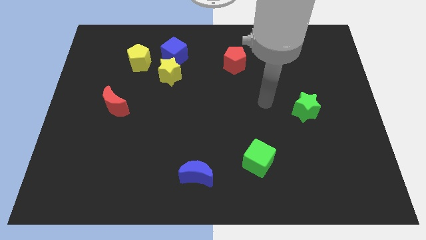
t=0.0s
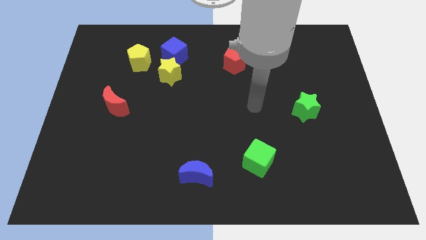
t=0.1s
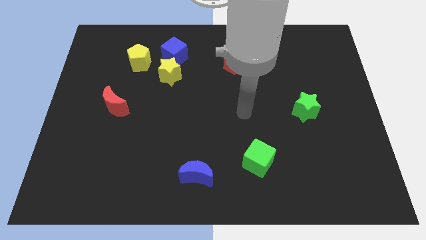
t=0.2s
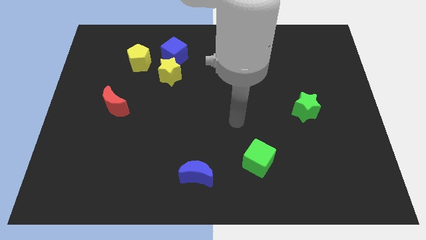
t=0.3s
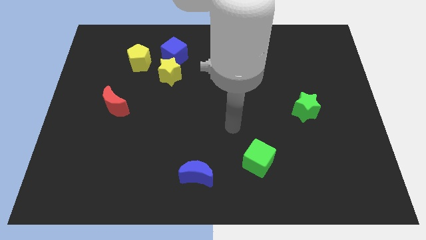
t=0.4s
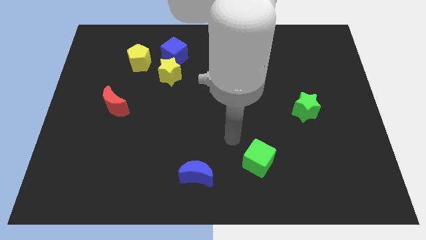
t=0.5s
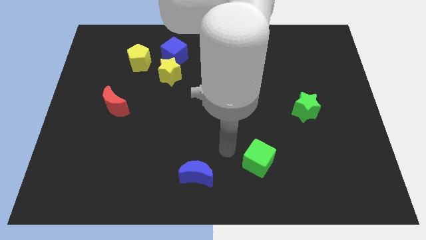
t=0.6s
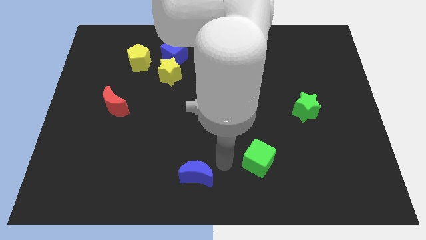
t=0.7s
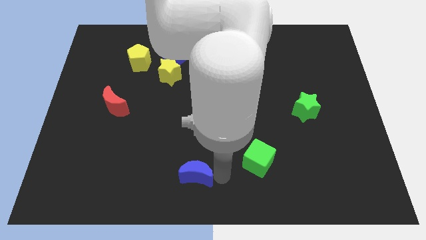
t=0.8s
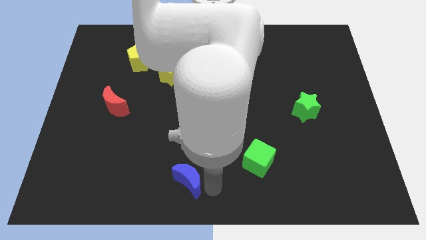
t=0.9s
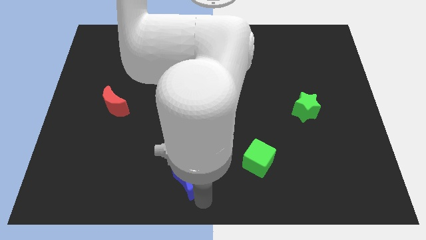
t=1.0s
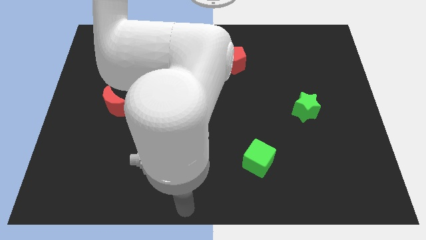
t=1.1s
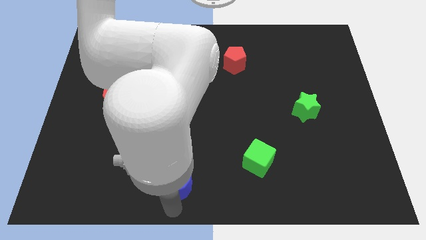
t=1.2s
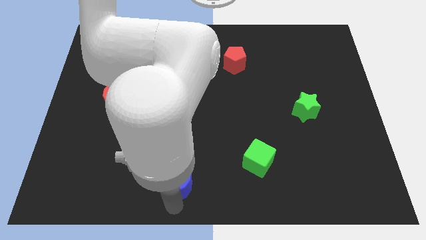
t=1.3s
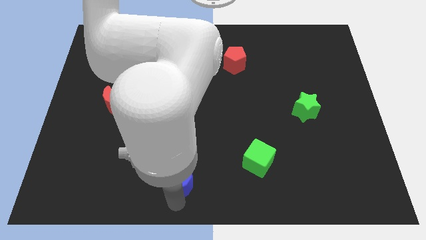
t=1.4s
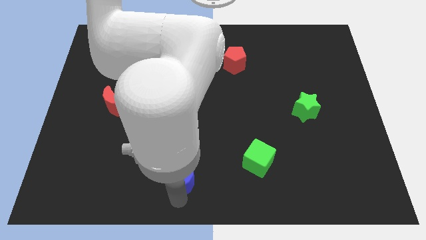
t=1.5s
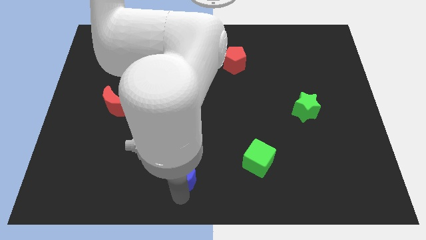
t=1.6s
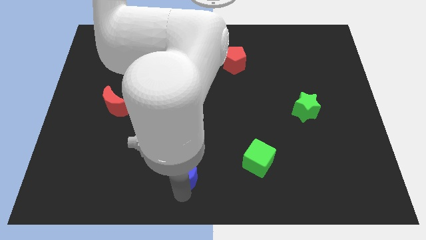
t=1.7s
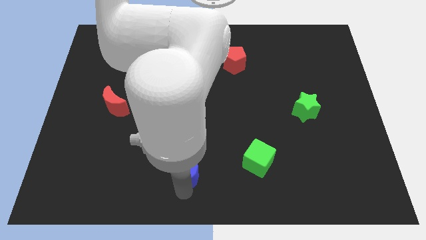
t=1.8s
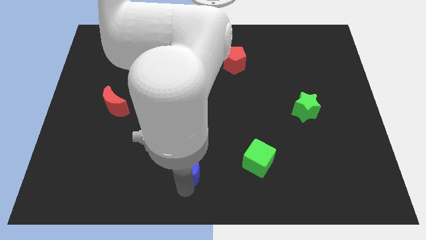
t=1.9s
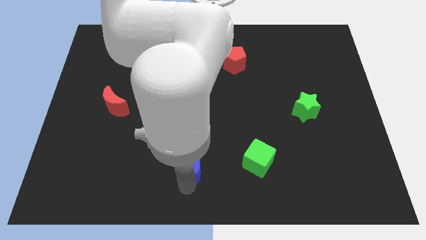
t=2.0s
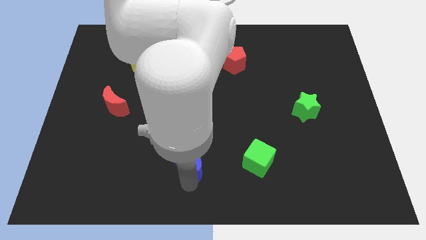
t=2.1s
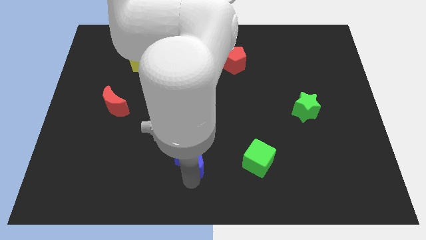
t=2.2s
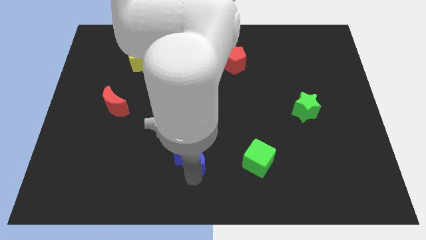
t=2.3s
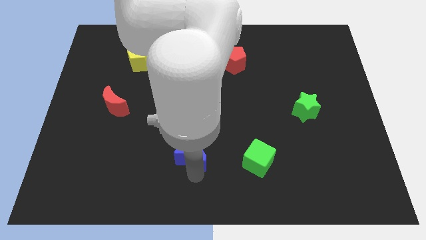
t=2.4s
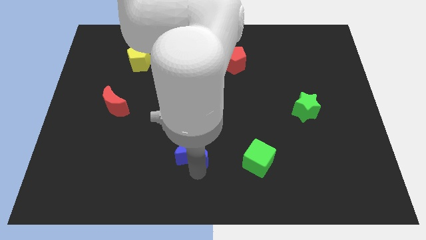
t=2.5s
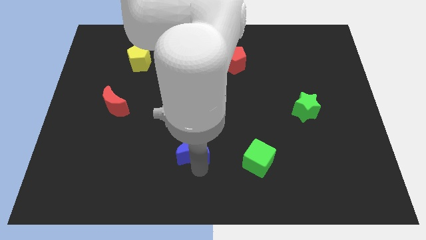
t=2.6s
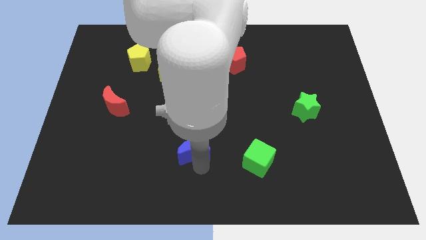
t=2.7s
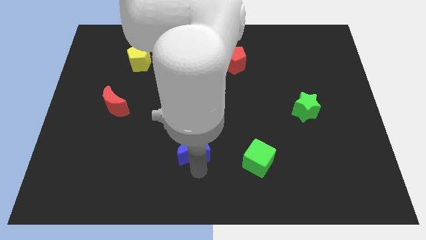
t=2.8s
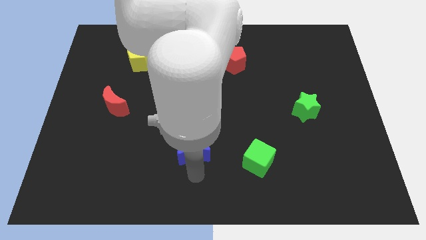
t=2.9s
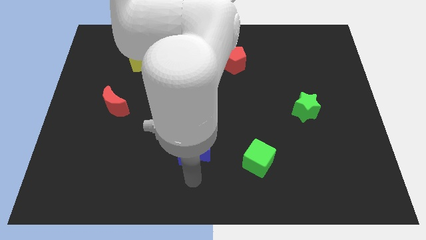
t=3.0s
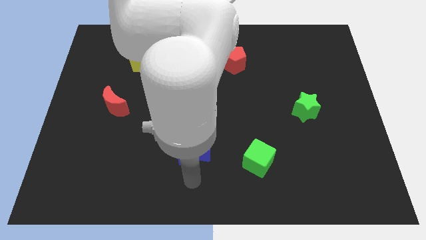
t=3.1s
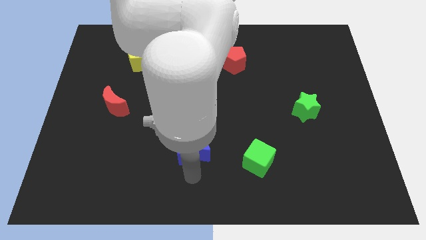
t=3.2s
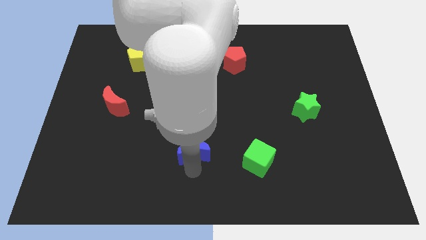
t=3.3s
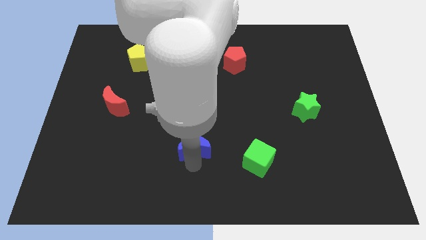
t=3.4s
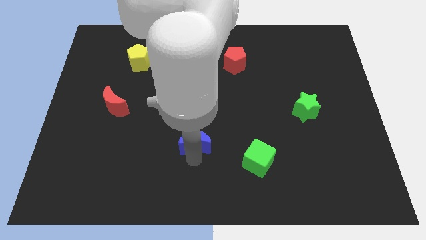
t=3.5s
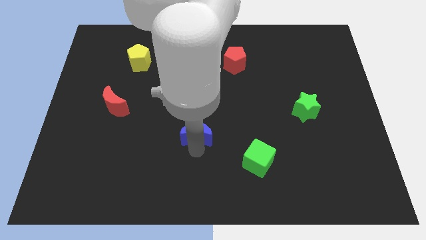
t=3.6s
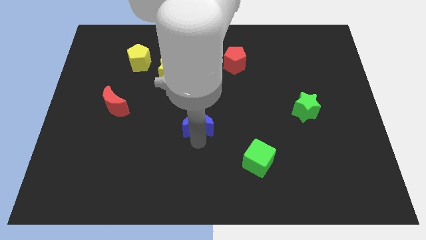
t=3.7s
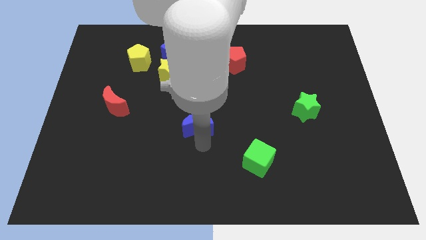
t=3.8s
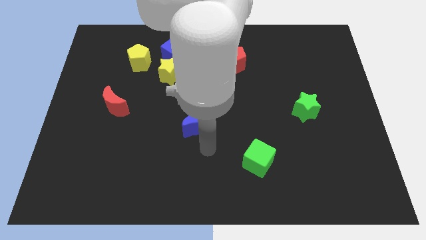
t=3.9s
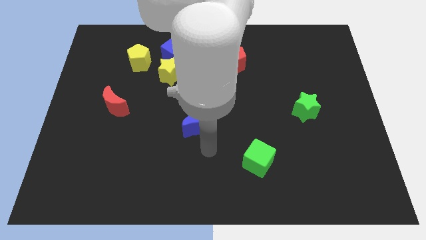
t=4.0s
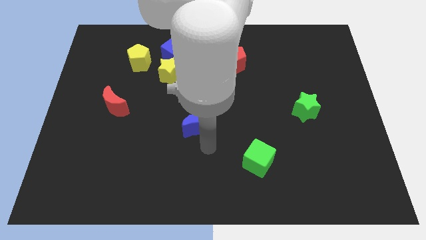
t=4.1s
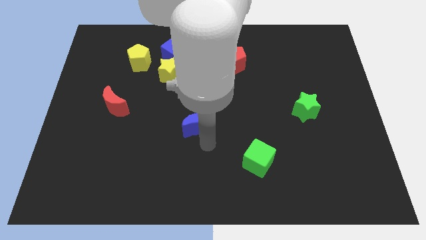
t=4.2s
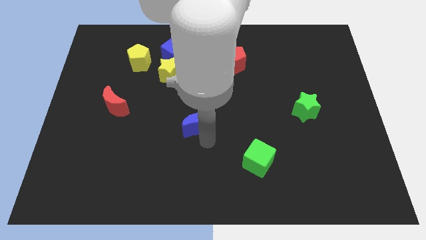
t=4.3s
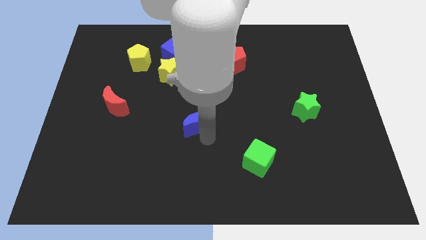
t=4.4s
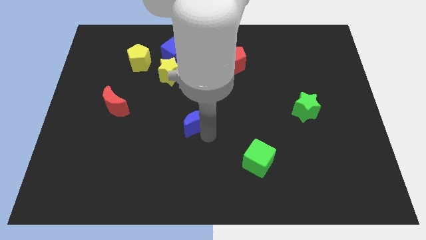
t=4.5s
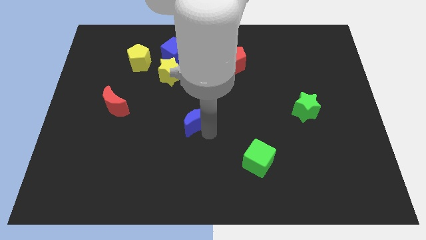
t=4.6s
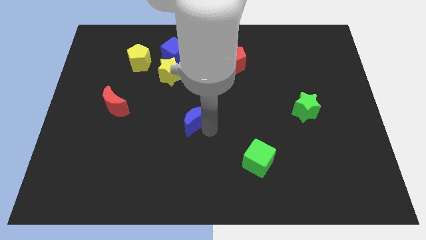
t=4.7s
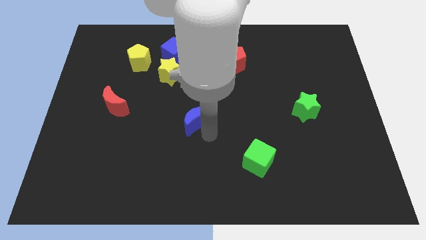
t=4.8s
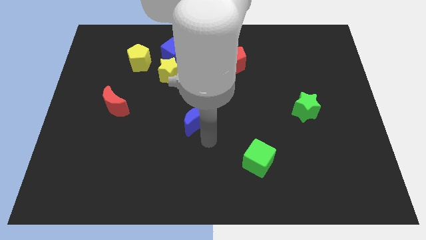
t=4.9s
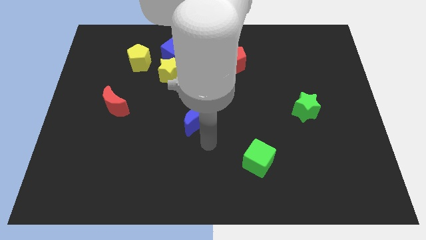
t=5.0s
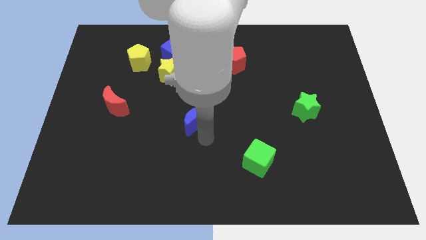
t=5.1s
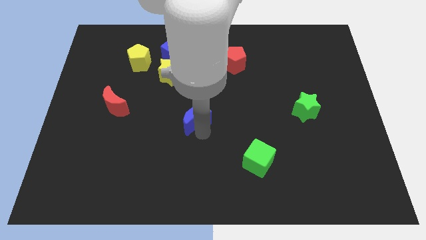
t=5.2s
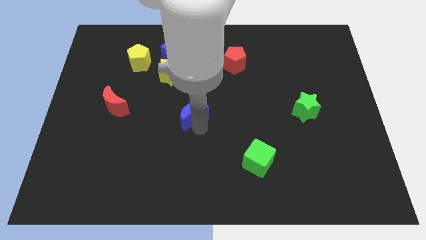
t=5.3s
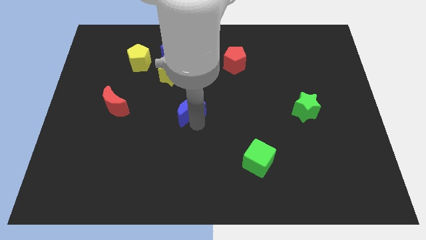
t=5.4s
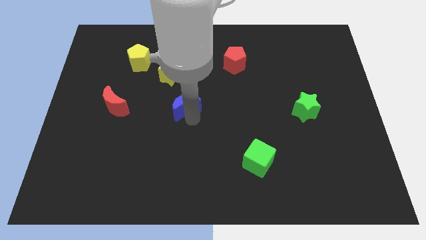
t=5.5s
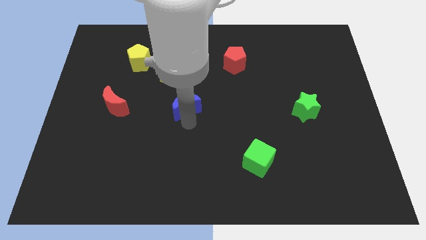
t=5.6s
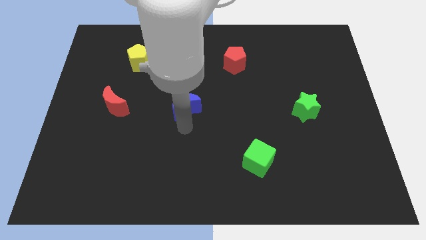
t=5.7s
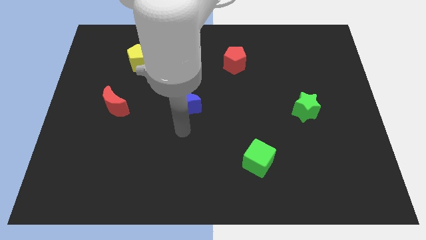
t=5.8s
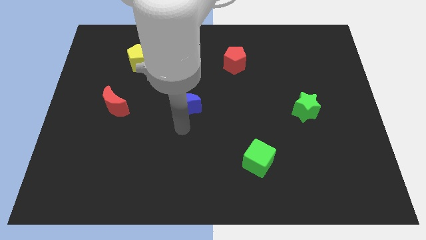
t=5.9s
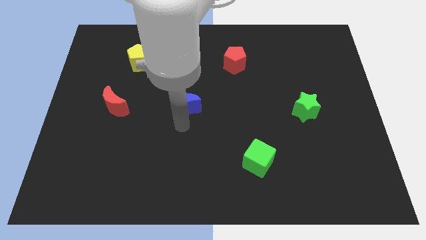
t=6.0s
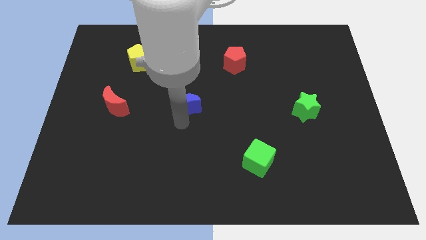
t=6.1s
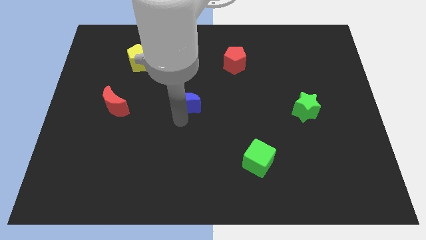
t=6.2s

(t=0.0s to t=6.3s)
push the blue moon to the bottom right of the yellow star

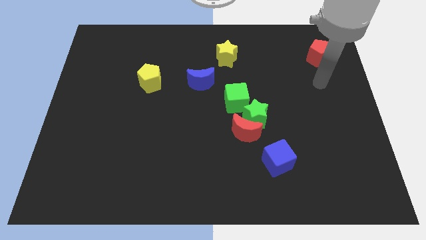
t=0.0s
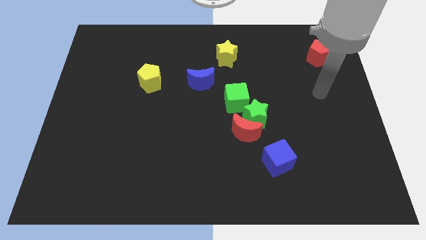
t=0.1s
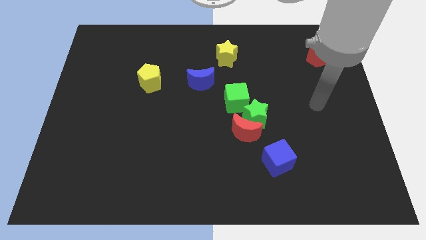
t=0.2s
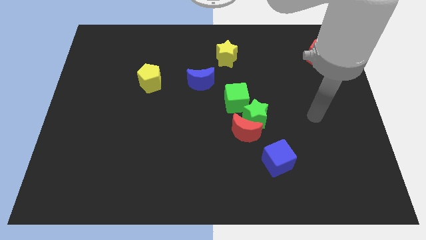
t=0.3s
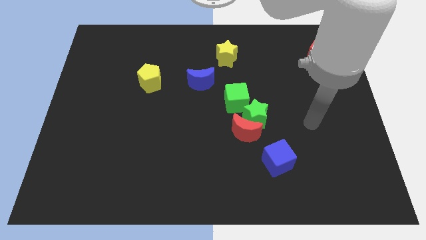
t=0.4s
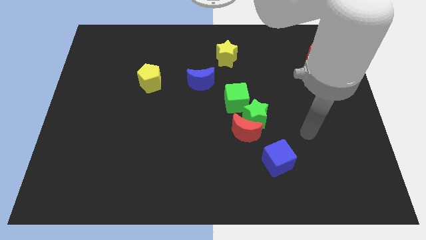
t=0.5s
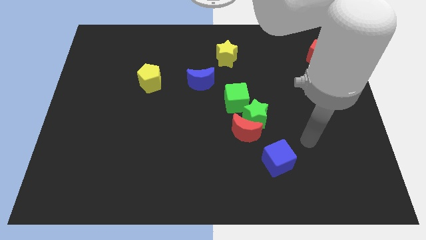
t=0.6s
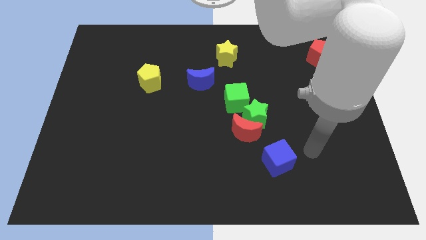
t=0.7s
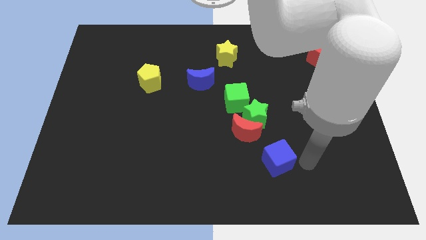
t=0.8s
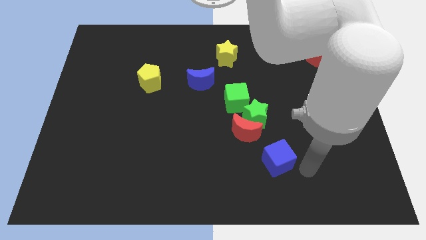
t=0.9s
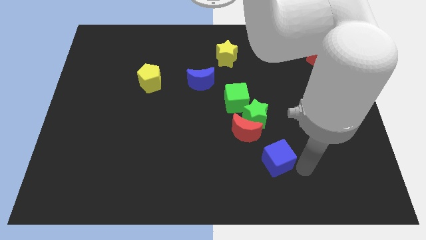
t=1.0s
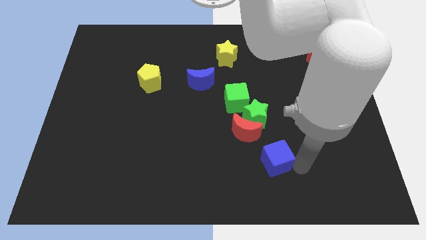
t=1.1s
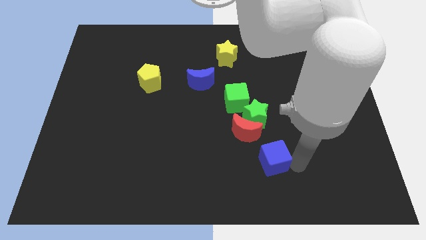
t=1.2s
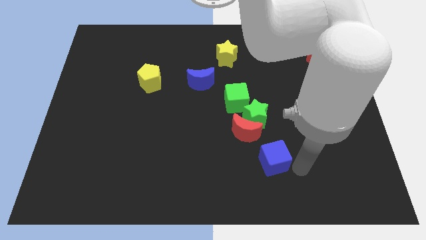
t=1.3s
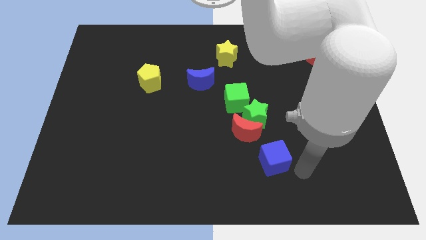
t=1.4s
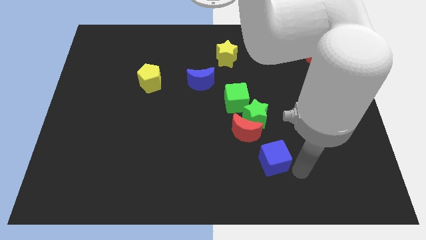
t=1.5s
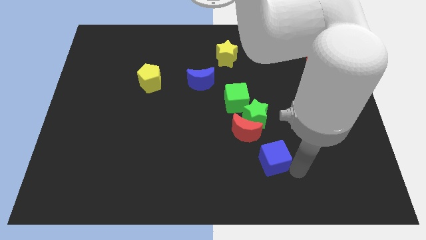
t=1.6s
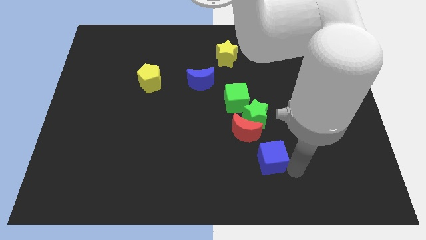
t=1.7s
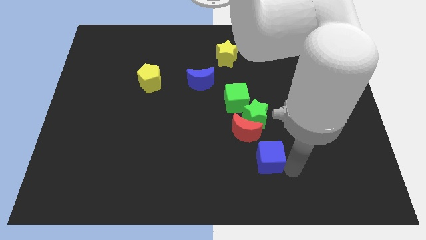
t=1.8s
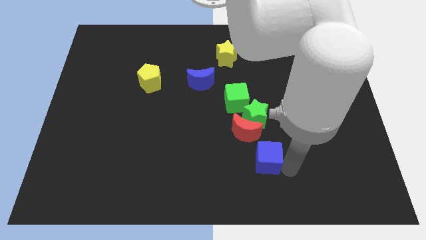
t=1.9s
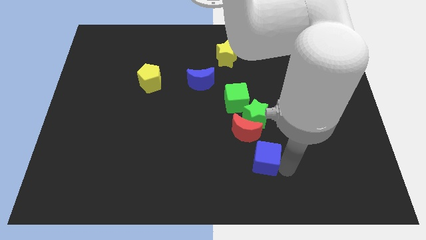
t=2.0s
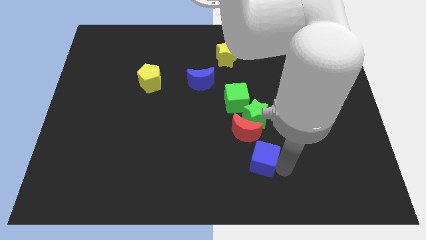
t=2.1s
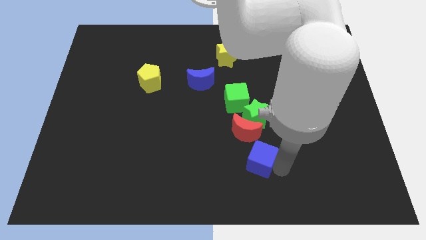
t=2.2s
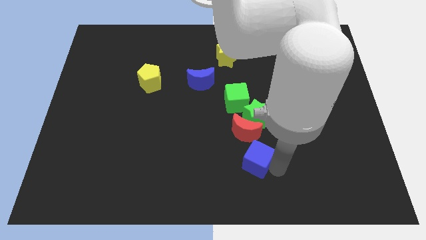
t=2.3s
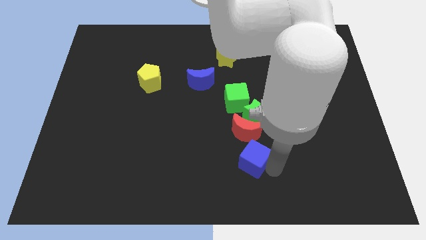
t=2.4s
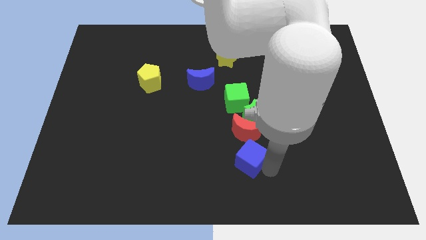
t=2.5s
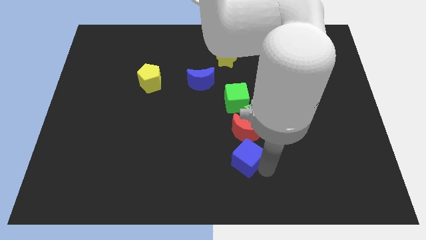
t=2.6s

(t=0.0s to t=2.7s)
put the blue cube below the green cube
